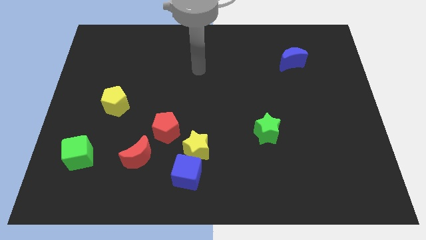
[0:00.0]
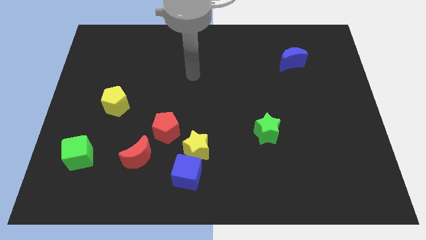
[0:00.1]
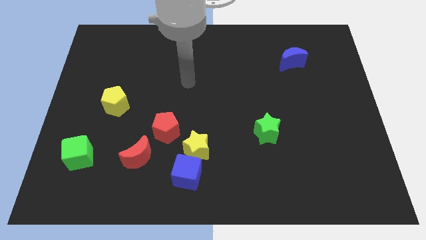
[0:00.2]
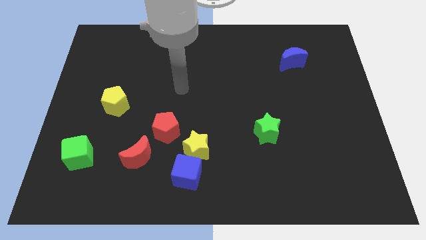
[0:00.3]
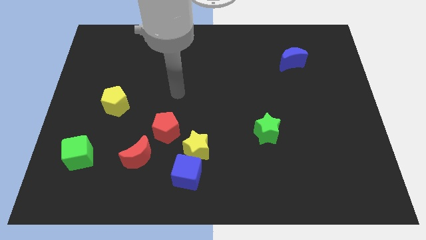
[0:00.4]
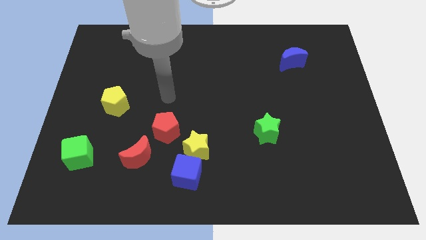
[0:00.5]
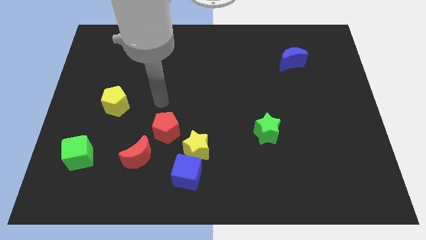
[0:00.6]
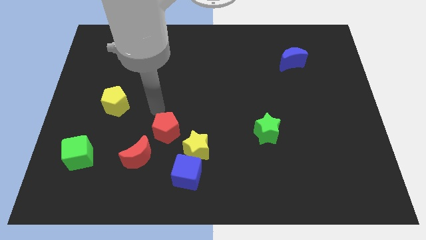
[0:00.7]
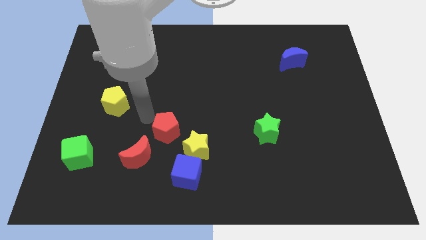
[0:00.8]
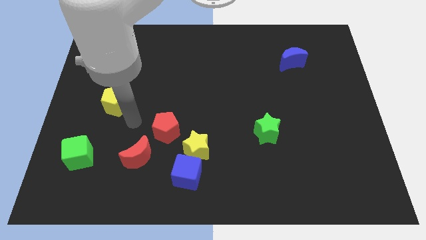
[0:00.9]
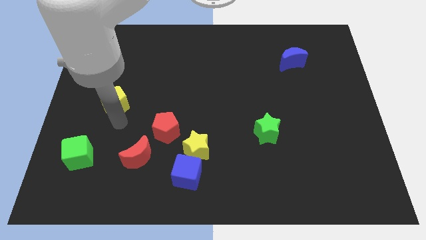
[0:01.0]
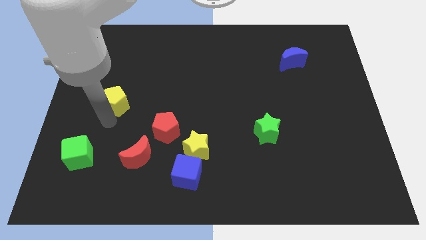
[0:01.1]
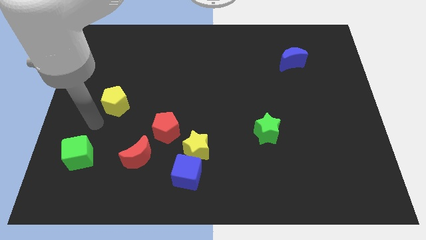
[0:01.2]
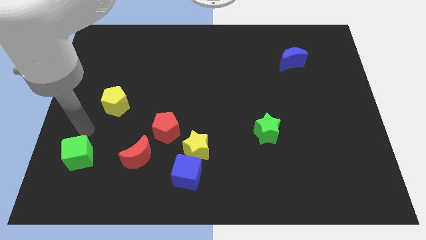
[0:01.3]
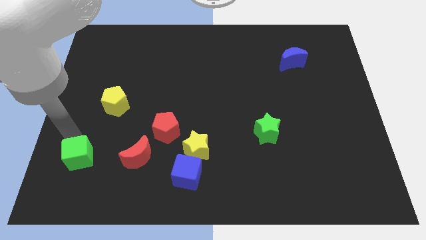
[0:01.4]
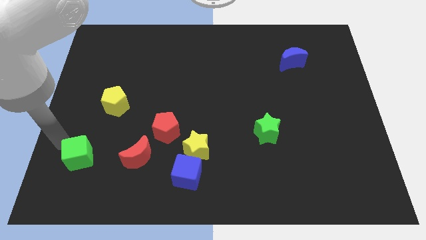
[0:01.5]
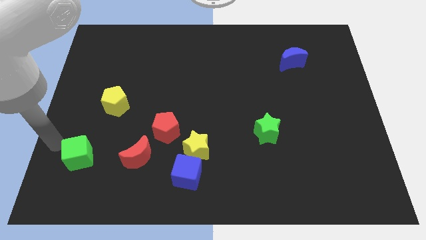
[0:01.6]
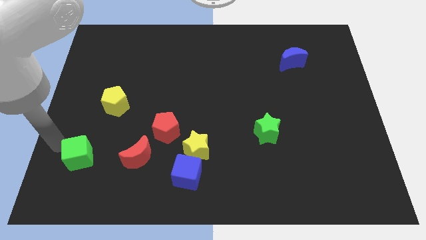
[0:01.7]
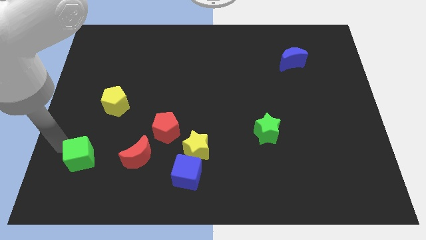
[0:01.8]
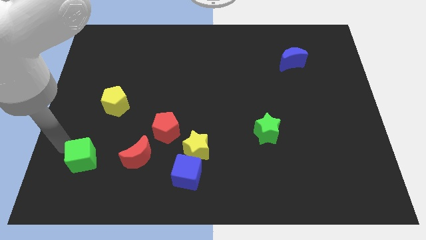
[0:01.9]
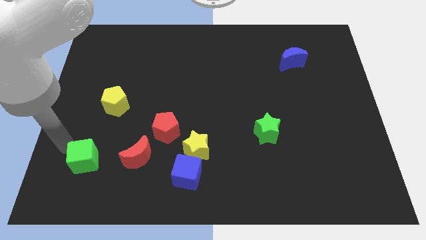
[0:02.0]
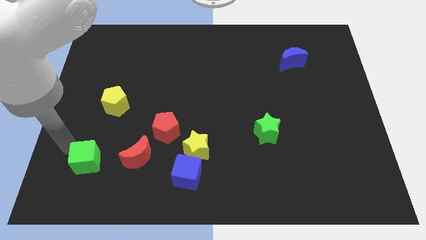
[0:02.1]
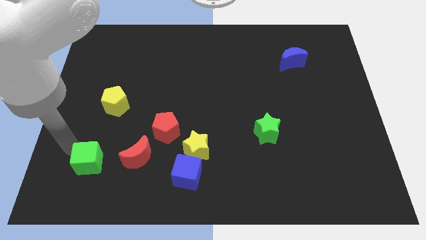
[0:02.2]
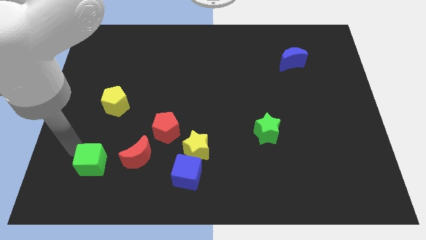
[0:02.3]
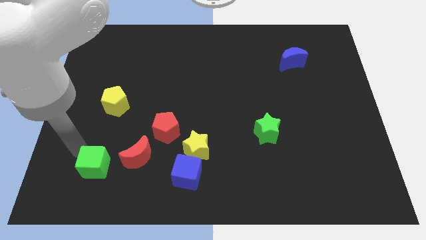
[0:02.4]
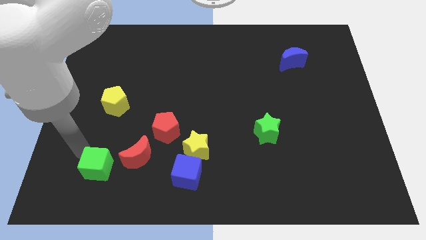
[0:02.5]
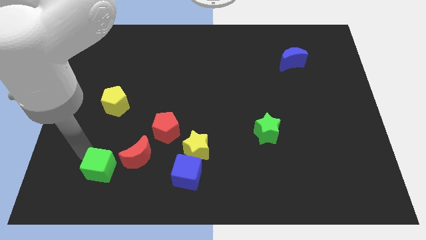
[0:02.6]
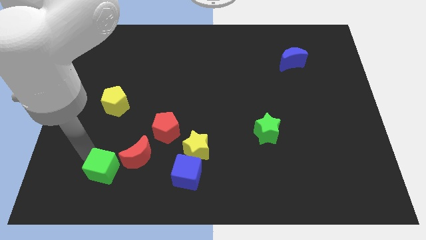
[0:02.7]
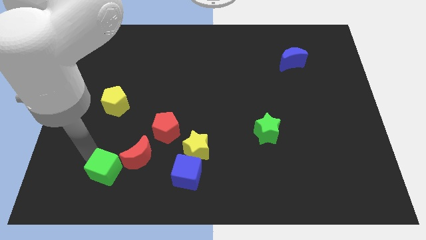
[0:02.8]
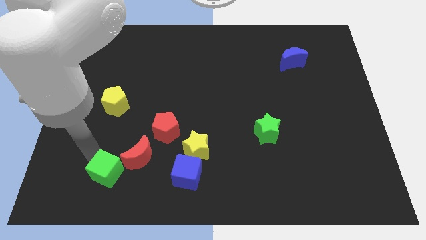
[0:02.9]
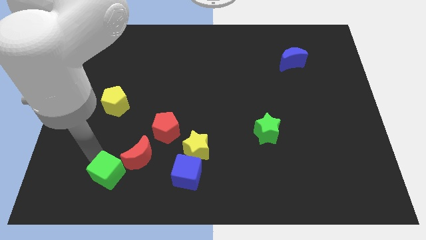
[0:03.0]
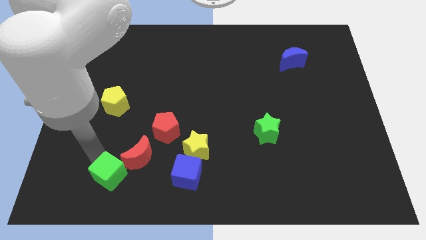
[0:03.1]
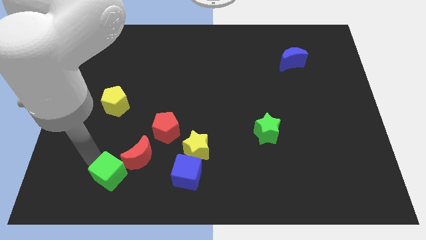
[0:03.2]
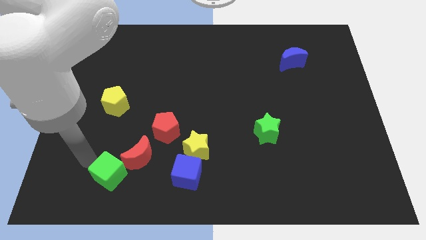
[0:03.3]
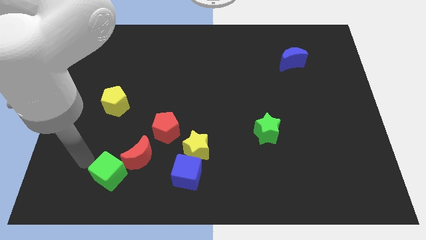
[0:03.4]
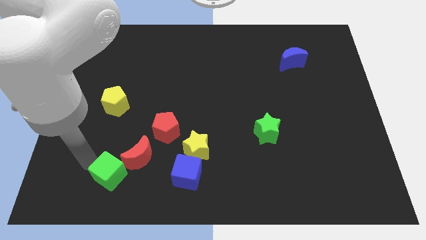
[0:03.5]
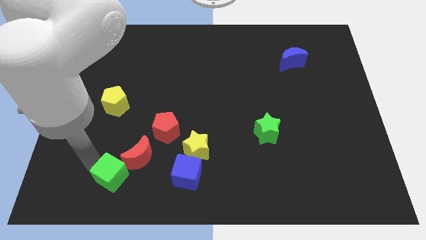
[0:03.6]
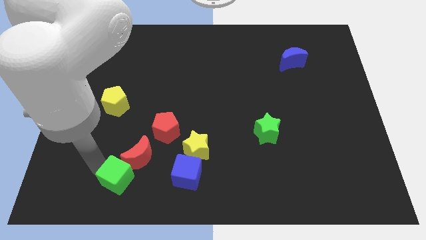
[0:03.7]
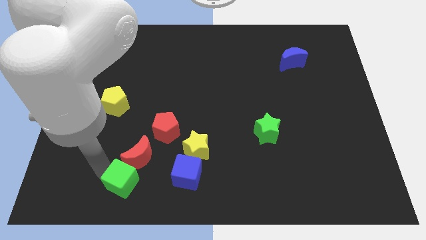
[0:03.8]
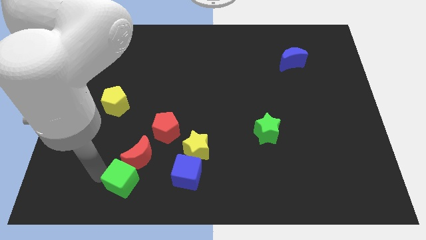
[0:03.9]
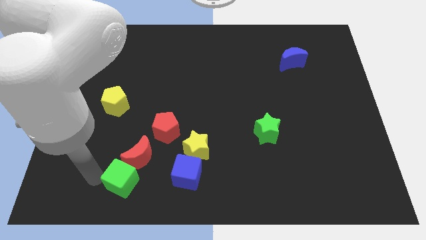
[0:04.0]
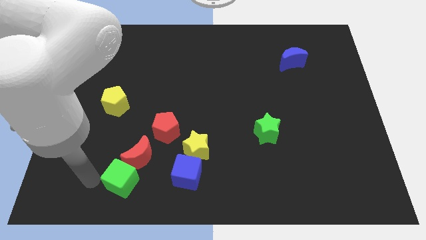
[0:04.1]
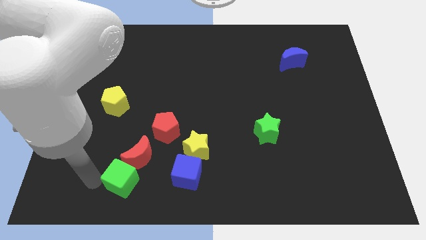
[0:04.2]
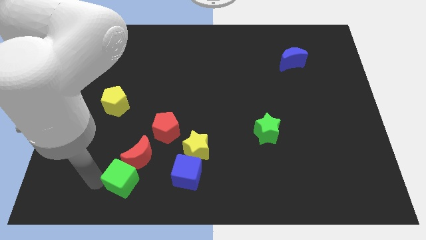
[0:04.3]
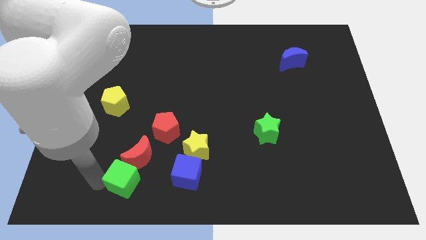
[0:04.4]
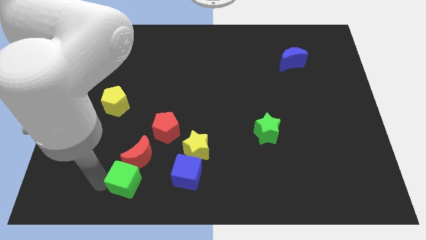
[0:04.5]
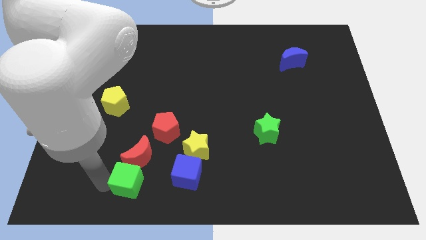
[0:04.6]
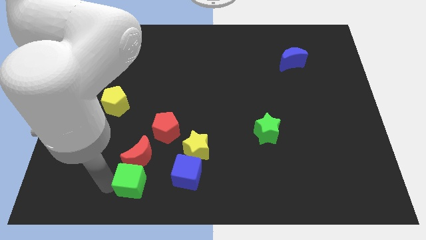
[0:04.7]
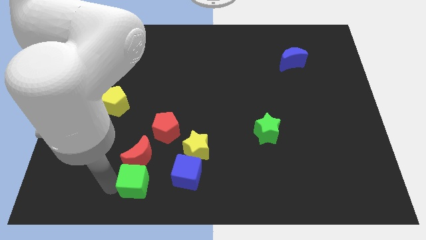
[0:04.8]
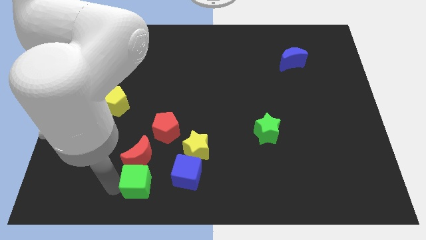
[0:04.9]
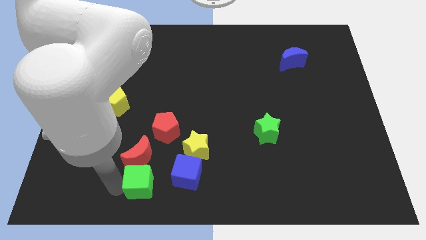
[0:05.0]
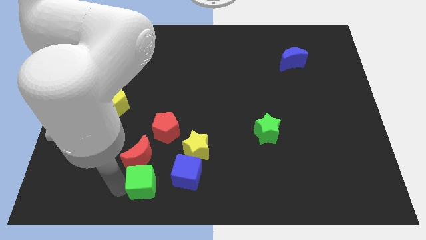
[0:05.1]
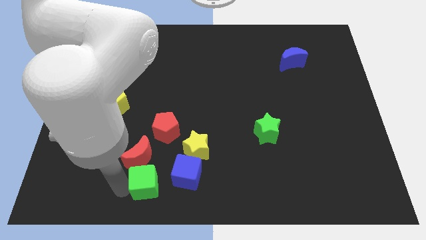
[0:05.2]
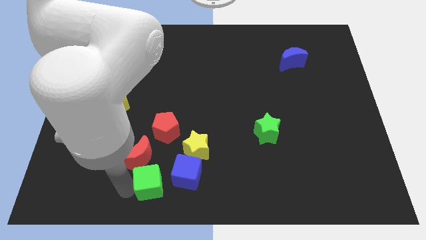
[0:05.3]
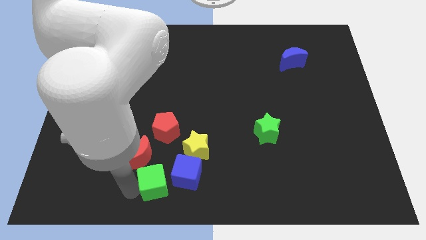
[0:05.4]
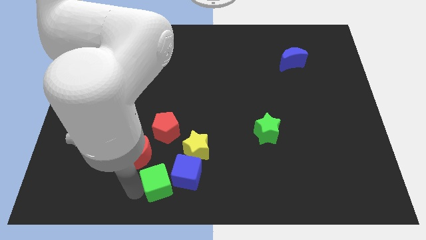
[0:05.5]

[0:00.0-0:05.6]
slide the green cube towards the blue cube
